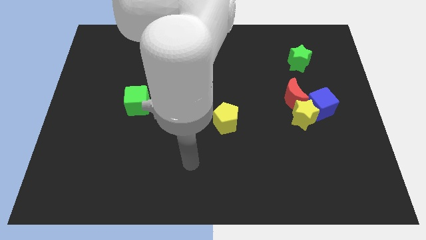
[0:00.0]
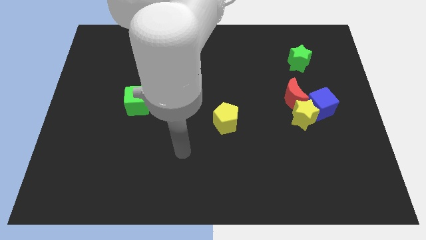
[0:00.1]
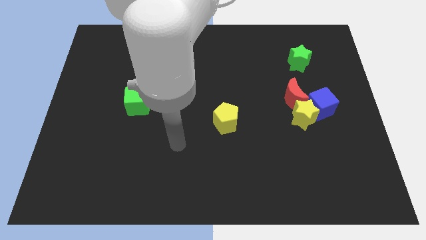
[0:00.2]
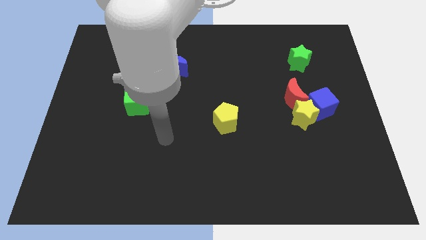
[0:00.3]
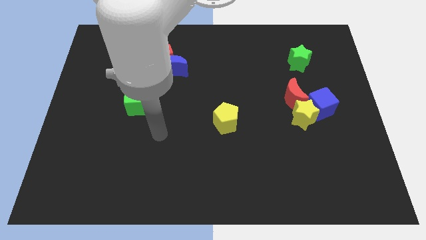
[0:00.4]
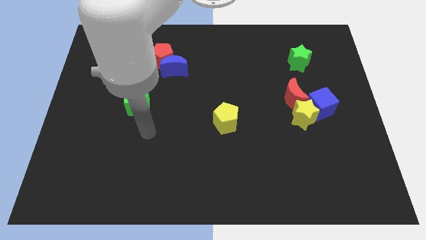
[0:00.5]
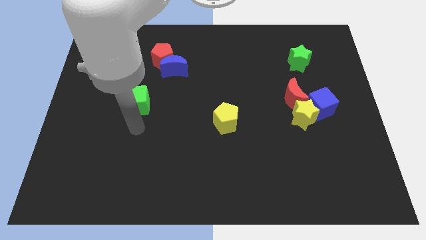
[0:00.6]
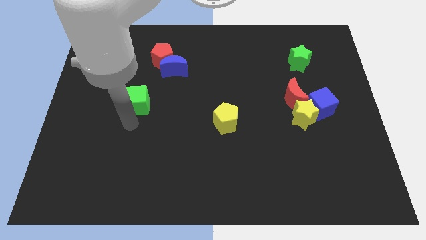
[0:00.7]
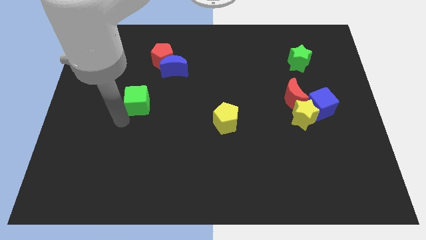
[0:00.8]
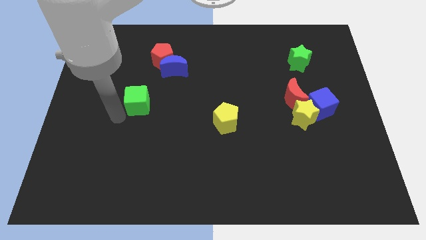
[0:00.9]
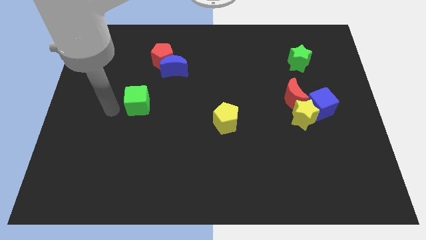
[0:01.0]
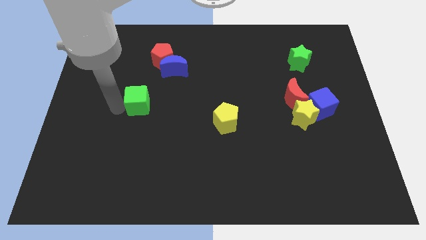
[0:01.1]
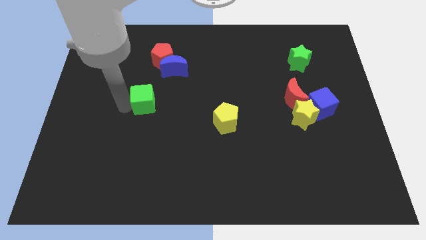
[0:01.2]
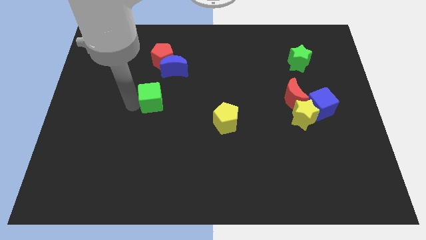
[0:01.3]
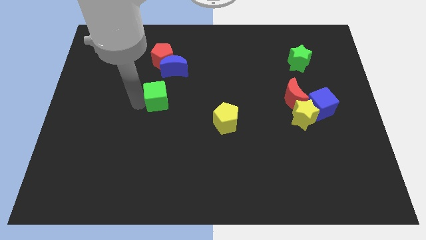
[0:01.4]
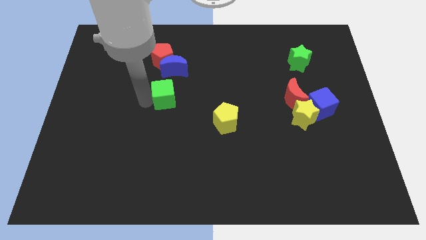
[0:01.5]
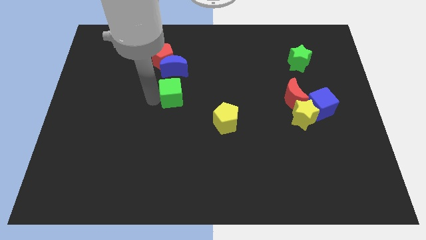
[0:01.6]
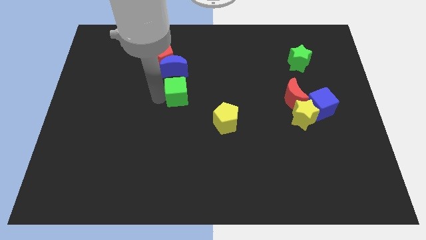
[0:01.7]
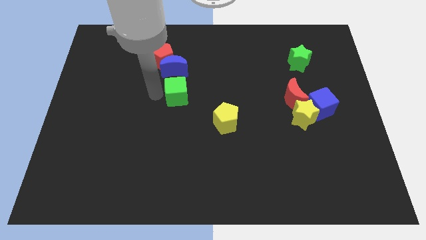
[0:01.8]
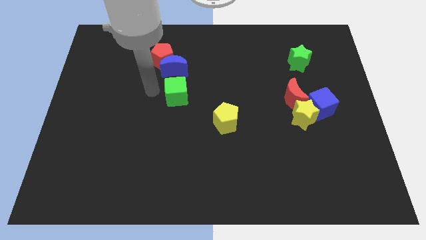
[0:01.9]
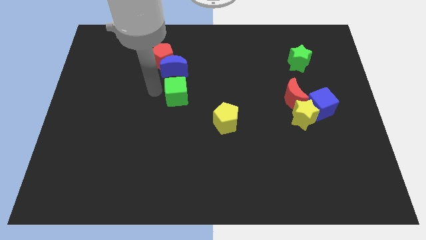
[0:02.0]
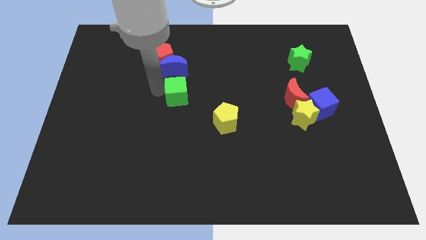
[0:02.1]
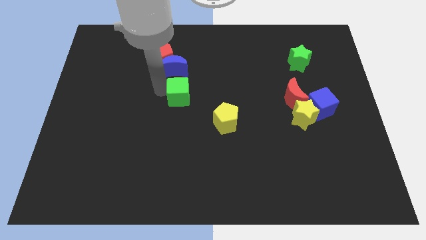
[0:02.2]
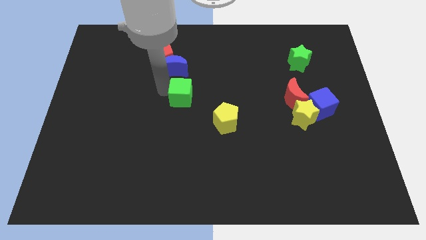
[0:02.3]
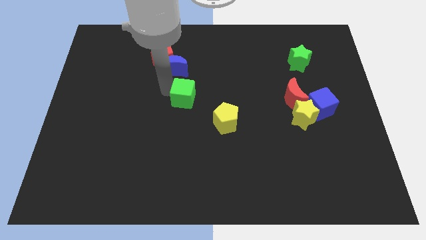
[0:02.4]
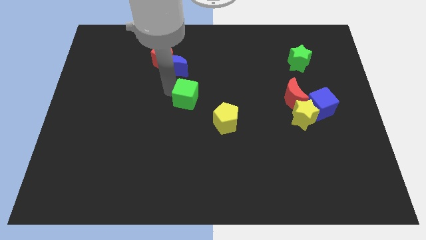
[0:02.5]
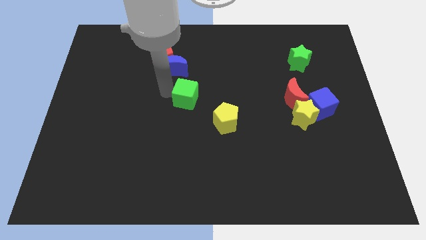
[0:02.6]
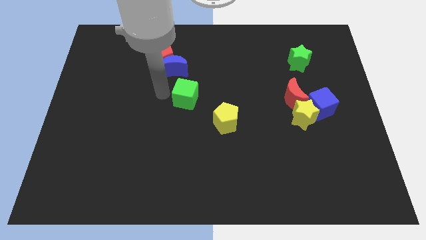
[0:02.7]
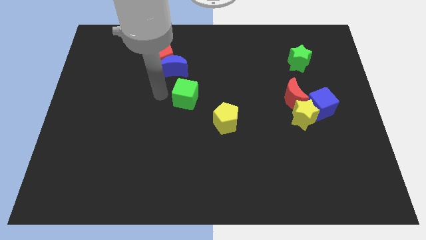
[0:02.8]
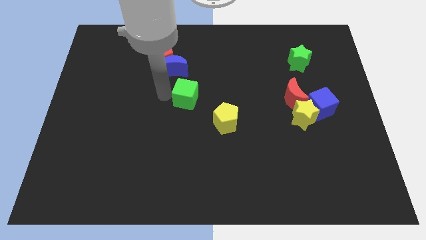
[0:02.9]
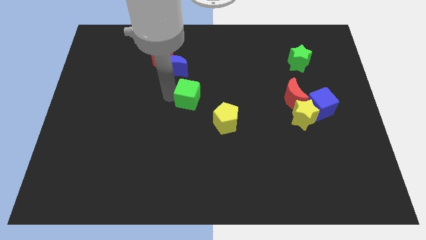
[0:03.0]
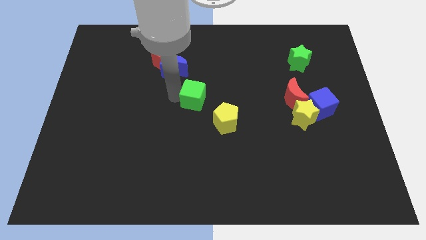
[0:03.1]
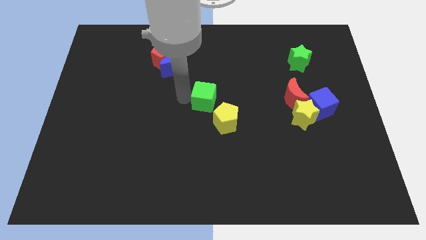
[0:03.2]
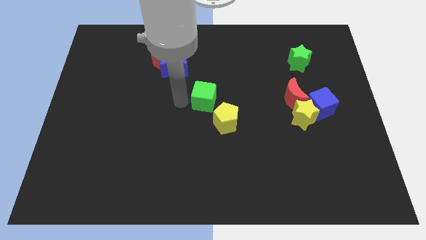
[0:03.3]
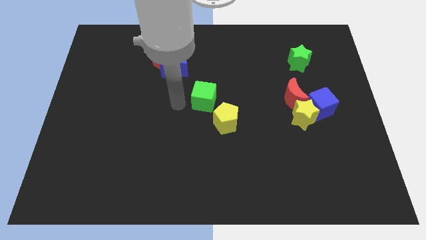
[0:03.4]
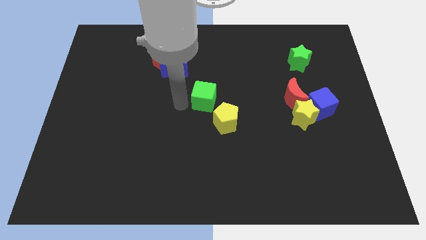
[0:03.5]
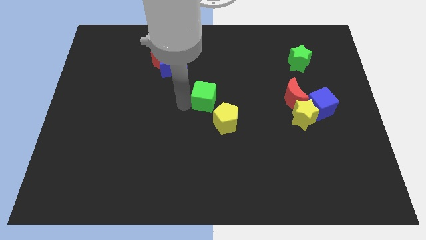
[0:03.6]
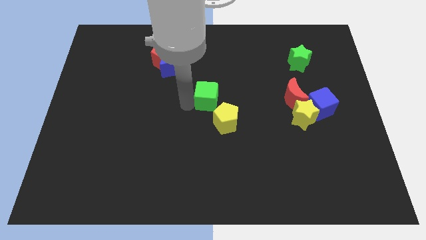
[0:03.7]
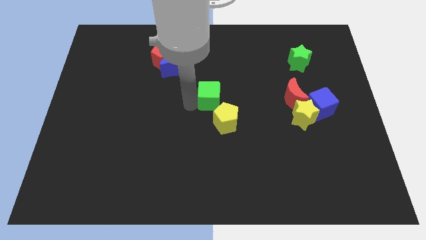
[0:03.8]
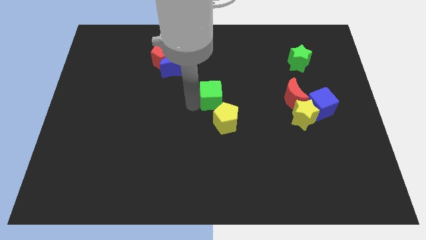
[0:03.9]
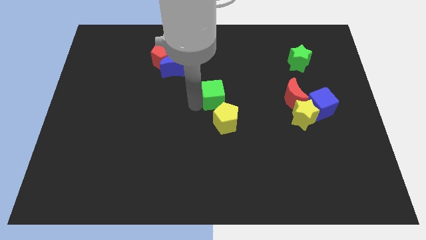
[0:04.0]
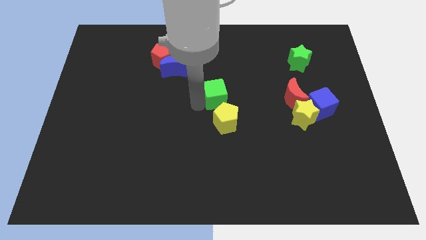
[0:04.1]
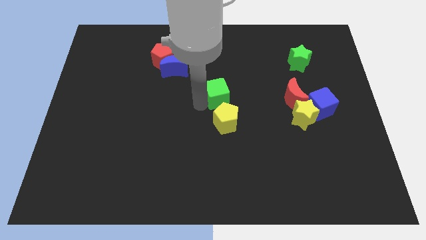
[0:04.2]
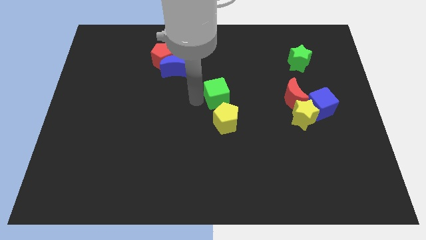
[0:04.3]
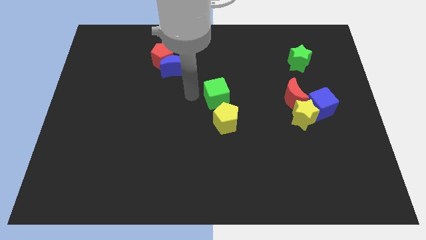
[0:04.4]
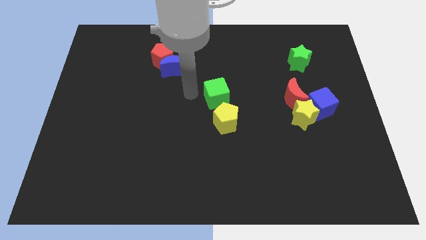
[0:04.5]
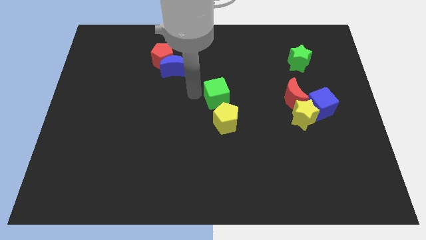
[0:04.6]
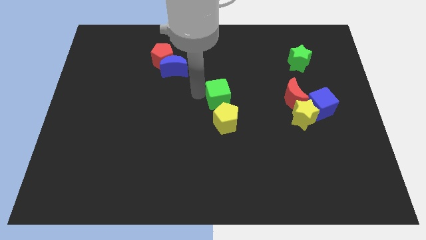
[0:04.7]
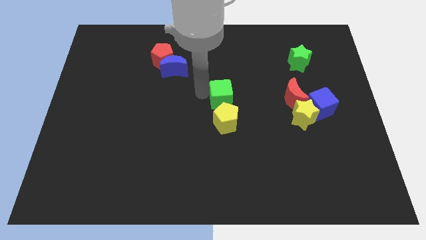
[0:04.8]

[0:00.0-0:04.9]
slide the green cube to the right

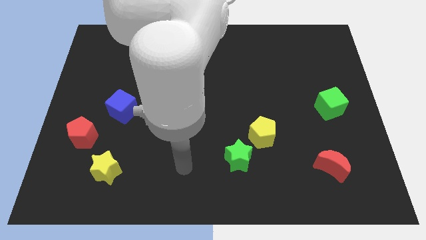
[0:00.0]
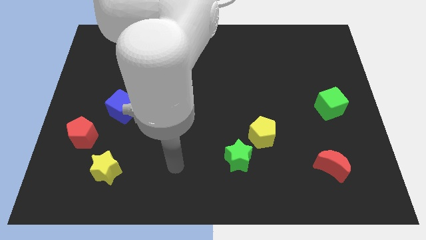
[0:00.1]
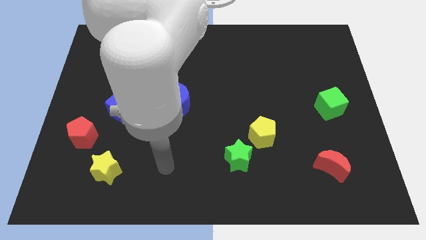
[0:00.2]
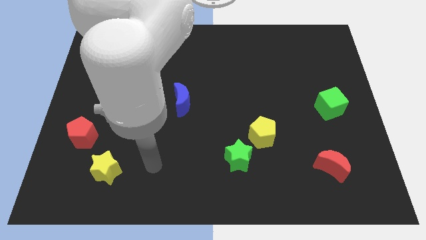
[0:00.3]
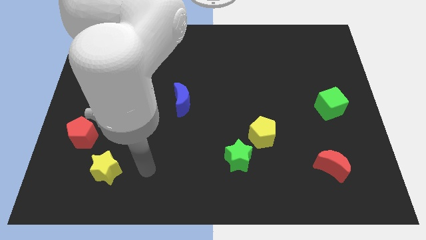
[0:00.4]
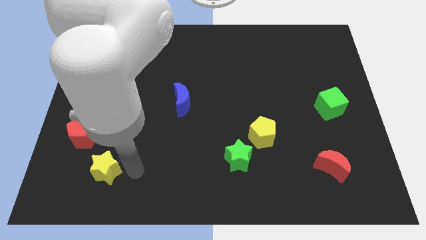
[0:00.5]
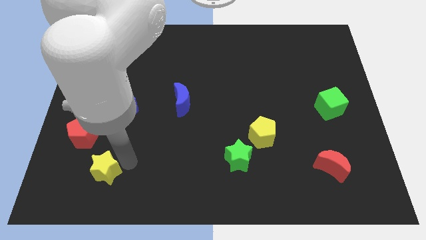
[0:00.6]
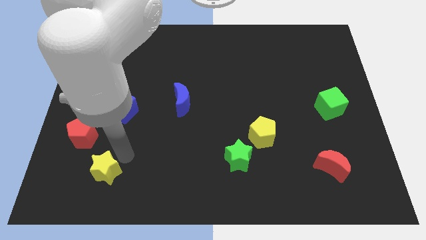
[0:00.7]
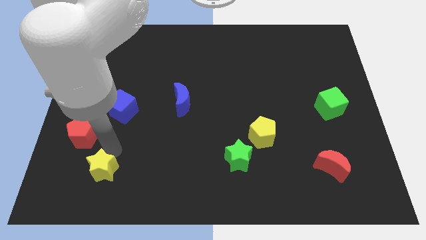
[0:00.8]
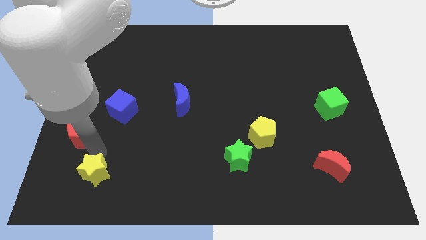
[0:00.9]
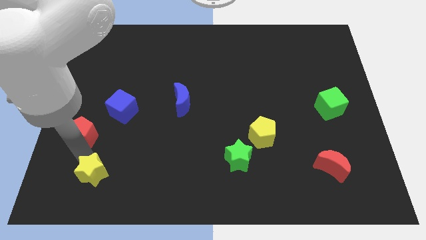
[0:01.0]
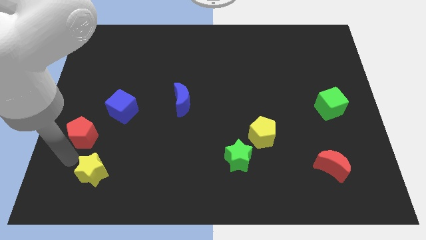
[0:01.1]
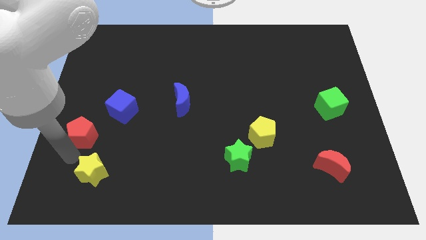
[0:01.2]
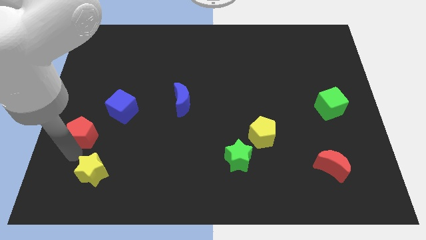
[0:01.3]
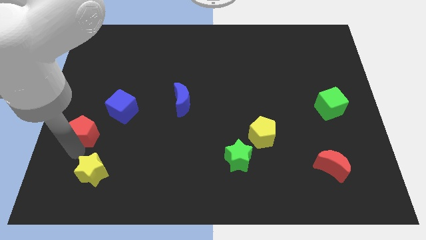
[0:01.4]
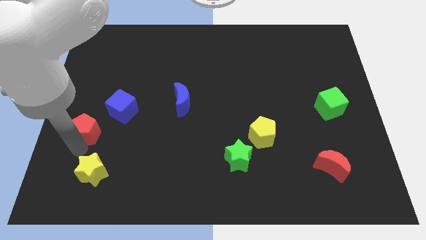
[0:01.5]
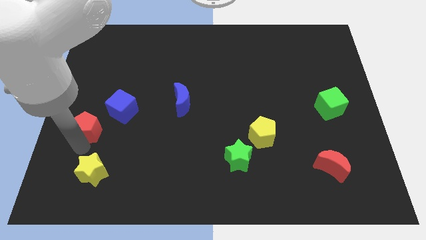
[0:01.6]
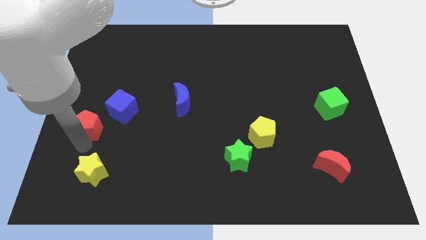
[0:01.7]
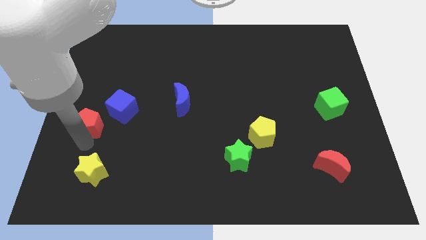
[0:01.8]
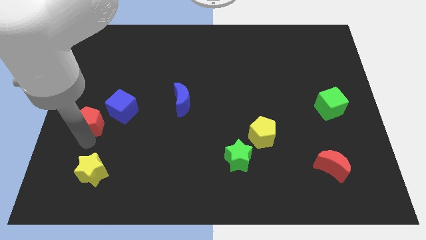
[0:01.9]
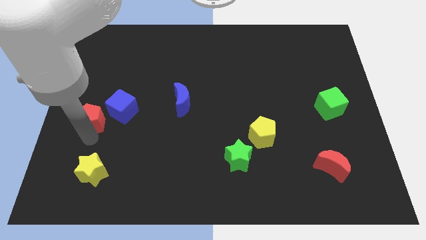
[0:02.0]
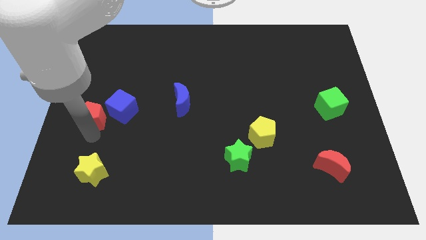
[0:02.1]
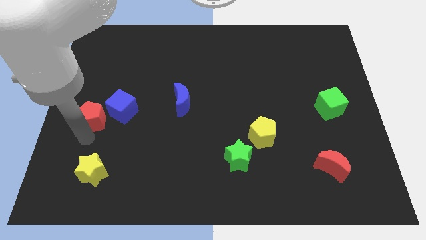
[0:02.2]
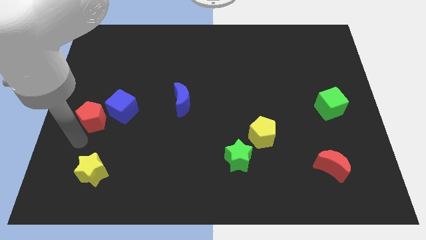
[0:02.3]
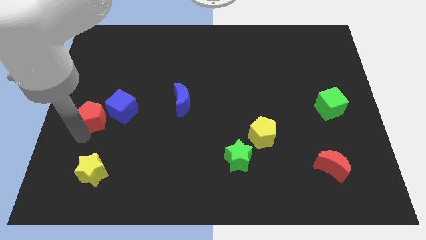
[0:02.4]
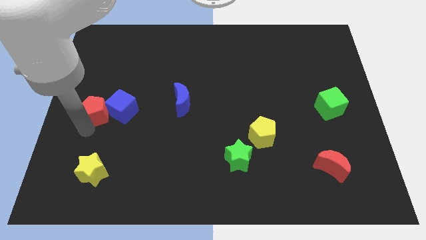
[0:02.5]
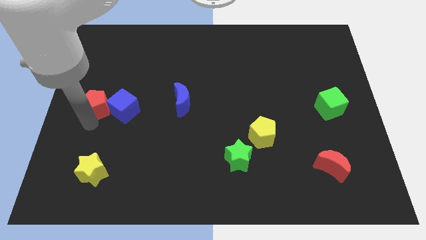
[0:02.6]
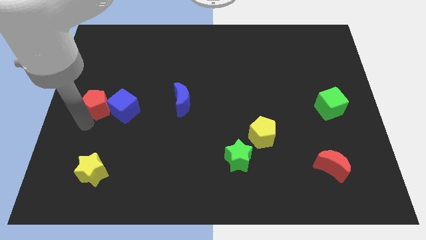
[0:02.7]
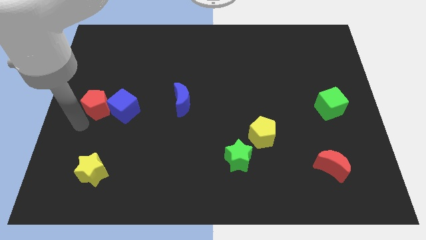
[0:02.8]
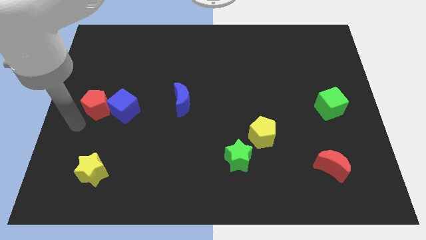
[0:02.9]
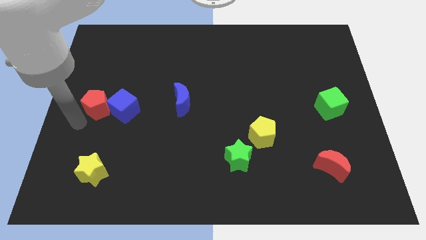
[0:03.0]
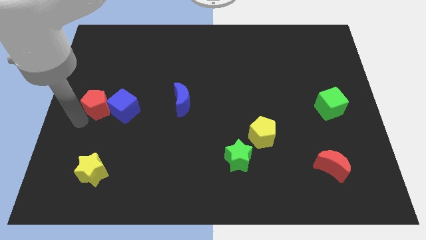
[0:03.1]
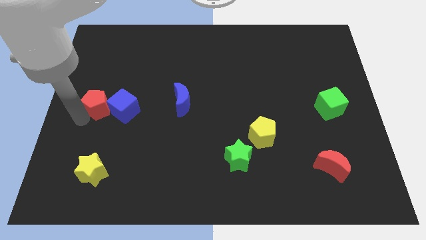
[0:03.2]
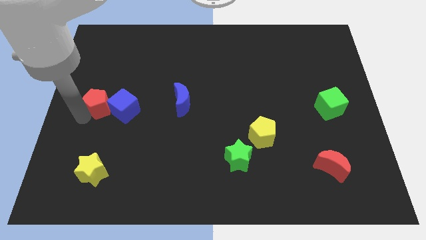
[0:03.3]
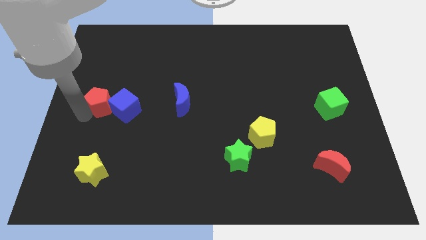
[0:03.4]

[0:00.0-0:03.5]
slightly slide the red pentagon diagonally upwards and right

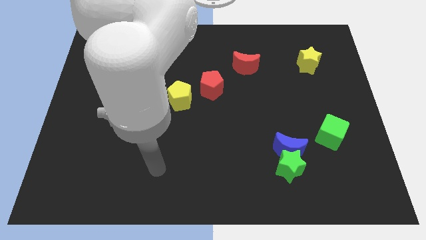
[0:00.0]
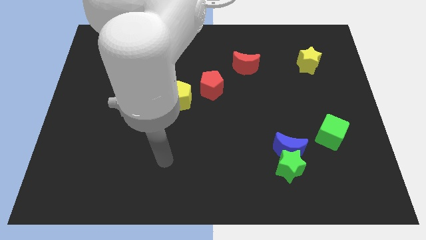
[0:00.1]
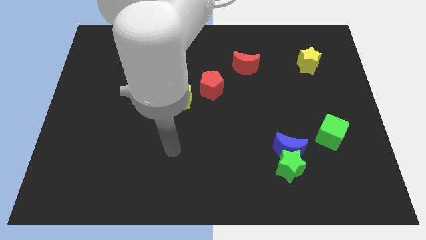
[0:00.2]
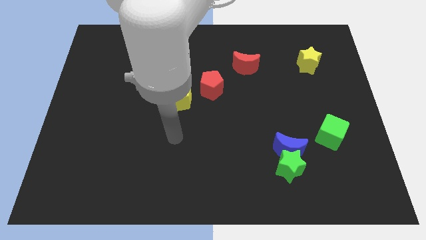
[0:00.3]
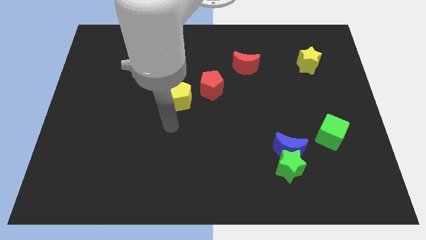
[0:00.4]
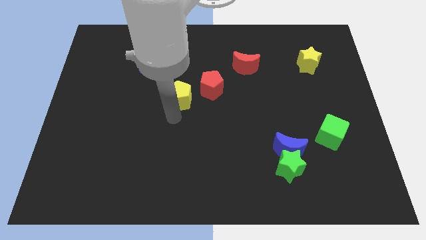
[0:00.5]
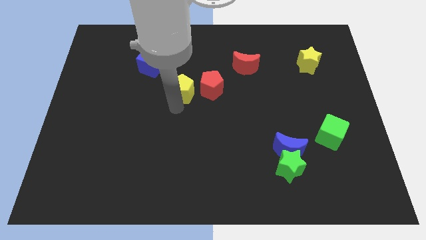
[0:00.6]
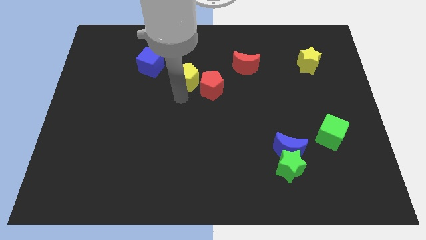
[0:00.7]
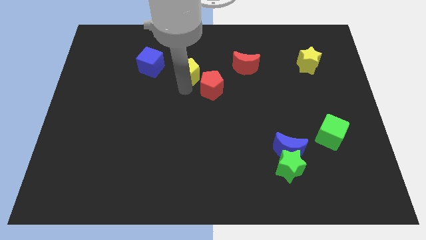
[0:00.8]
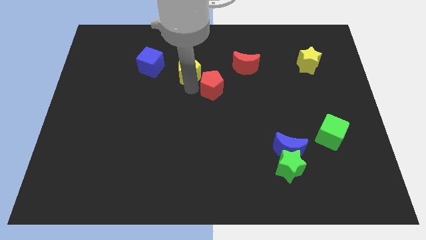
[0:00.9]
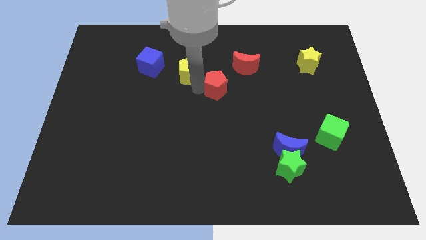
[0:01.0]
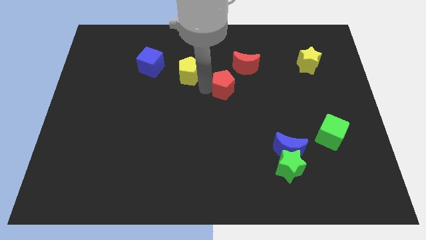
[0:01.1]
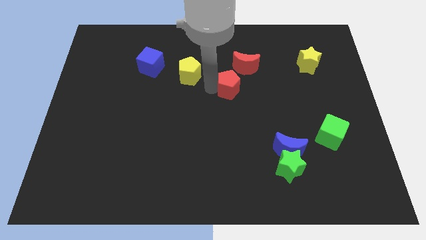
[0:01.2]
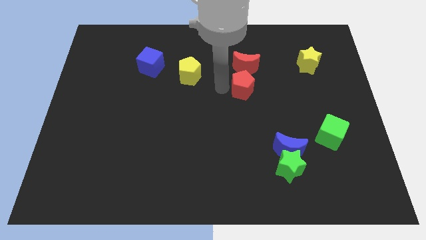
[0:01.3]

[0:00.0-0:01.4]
slightly push the red pentagon to the right
